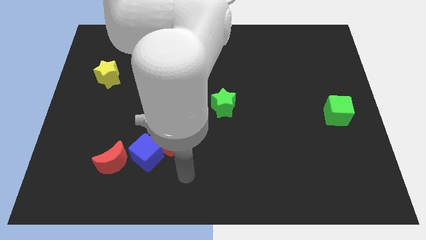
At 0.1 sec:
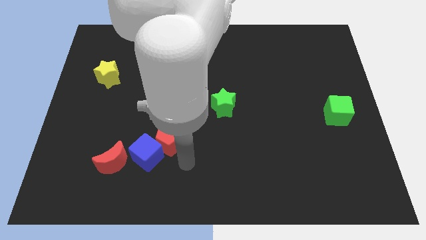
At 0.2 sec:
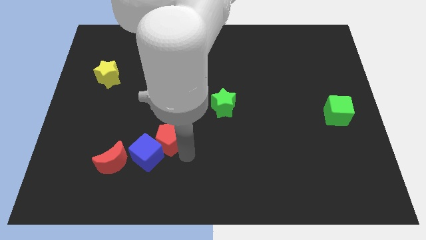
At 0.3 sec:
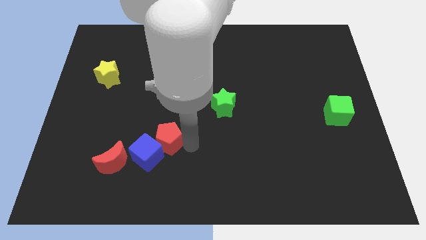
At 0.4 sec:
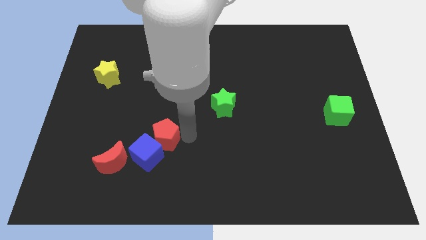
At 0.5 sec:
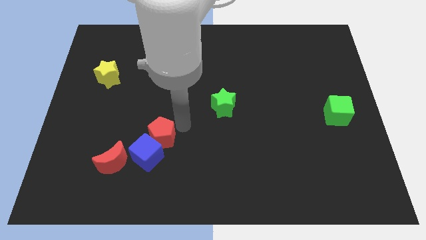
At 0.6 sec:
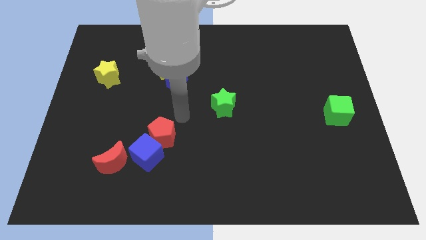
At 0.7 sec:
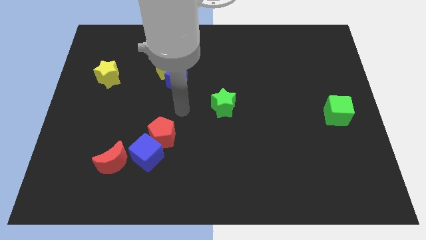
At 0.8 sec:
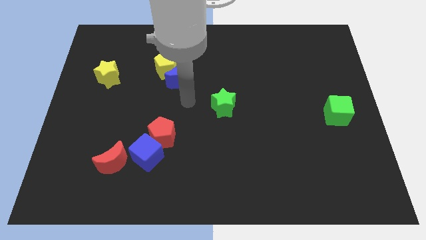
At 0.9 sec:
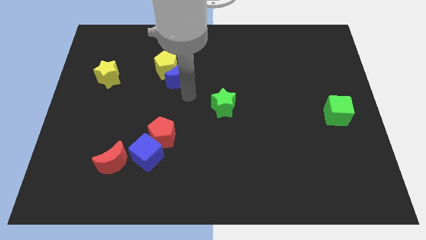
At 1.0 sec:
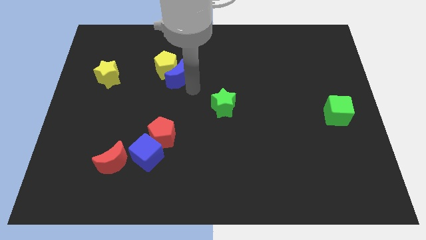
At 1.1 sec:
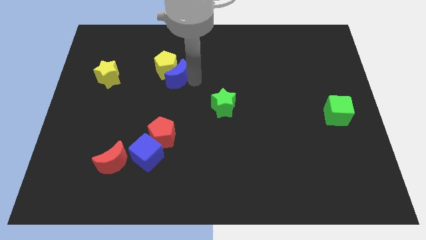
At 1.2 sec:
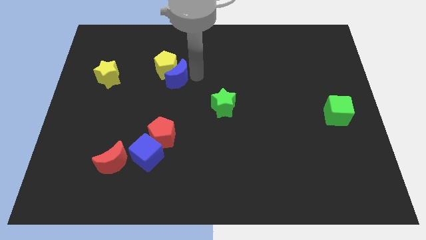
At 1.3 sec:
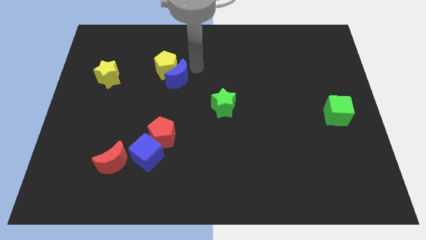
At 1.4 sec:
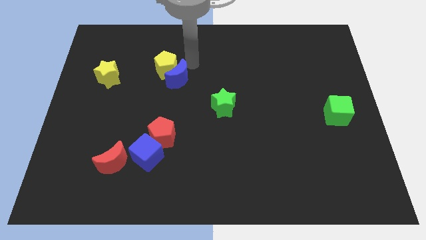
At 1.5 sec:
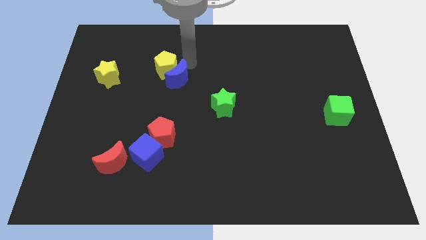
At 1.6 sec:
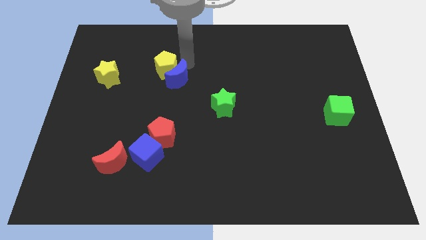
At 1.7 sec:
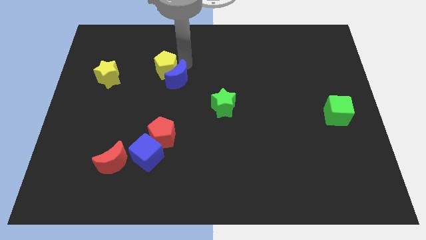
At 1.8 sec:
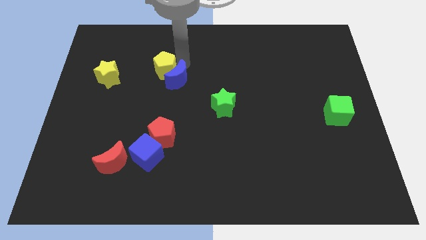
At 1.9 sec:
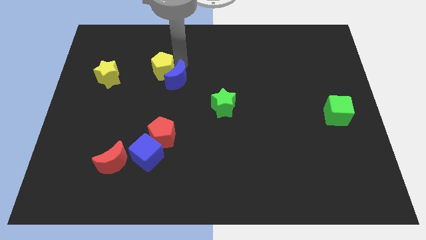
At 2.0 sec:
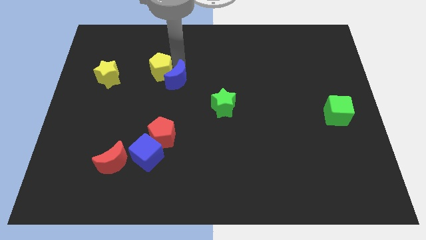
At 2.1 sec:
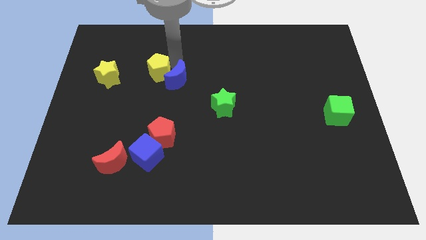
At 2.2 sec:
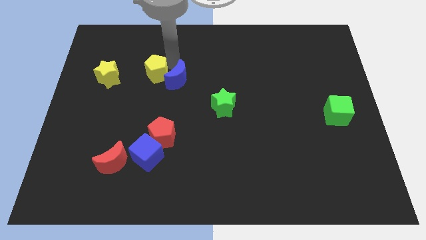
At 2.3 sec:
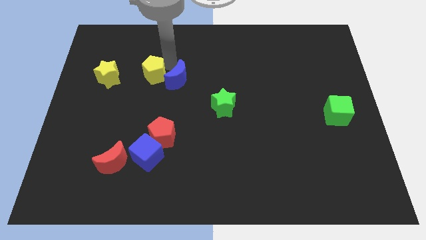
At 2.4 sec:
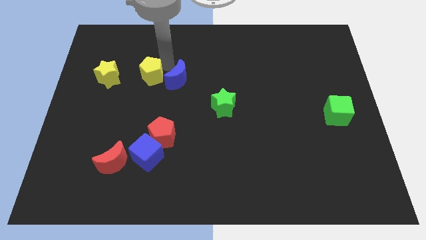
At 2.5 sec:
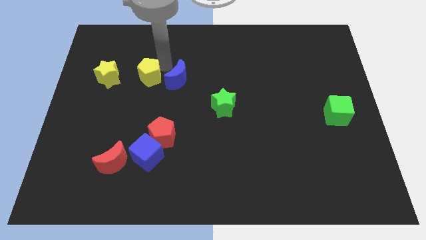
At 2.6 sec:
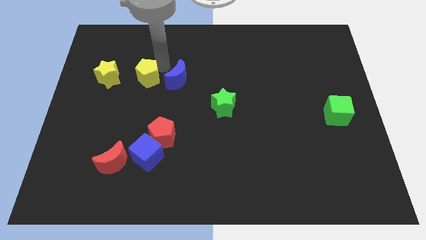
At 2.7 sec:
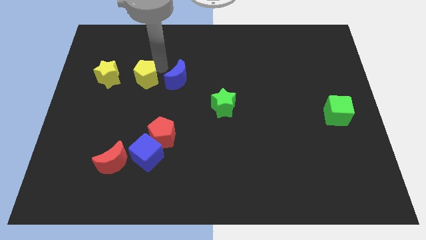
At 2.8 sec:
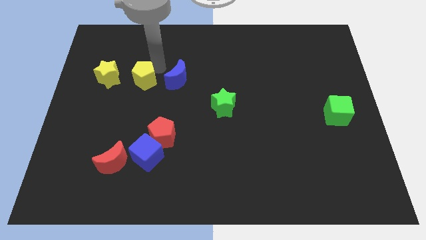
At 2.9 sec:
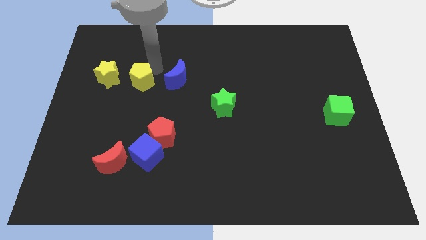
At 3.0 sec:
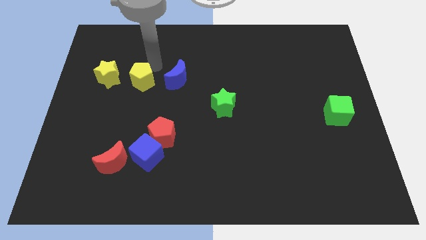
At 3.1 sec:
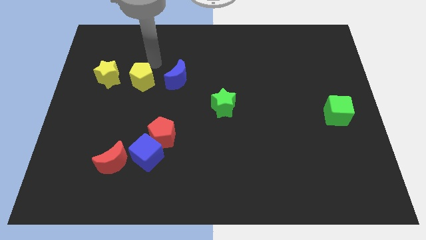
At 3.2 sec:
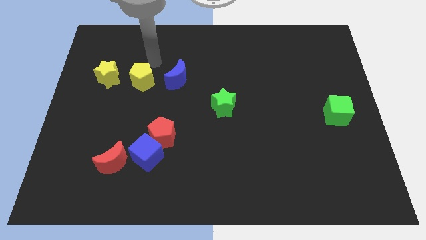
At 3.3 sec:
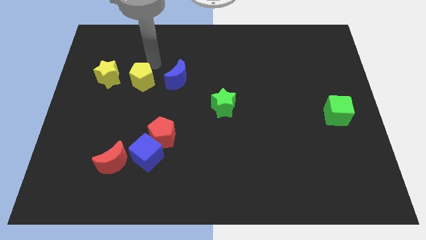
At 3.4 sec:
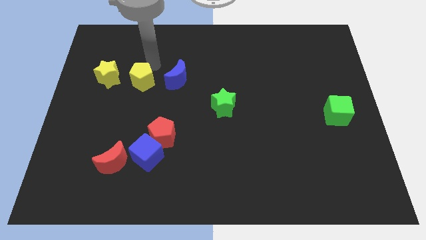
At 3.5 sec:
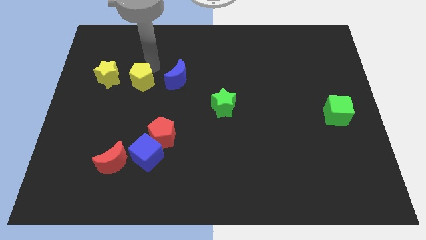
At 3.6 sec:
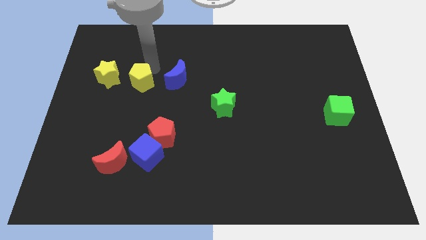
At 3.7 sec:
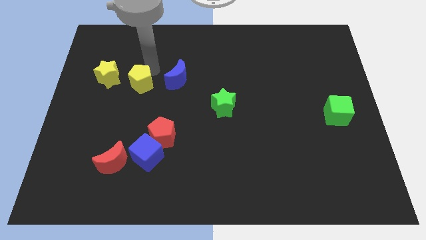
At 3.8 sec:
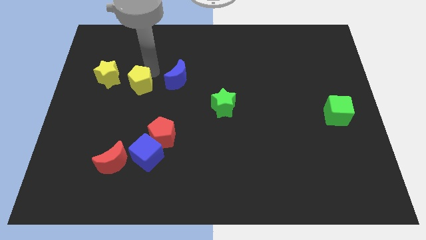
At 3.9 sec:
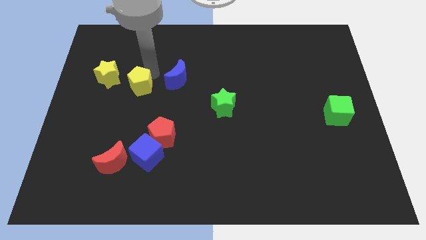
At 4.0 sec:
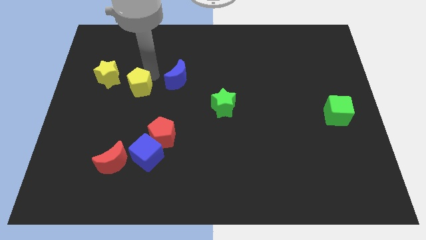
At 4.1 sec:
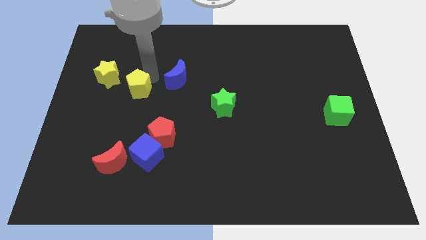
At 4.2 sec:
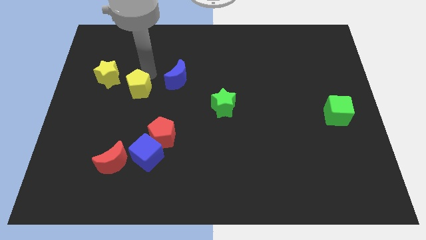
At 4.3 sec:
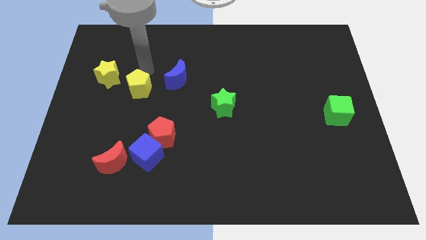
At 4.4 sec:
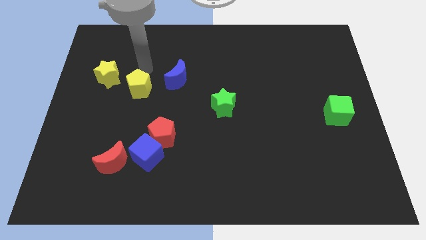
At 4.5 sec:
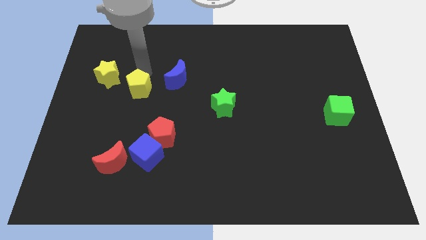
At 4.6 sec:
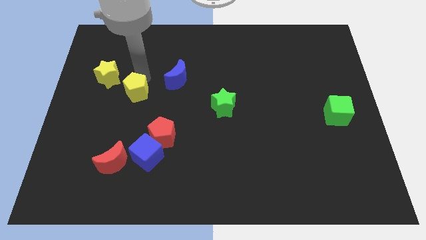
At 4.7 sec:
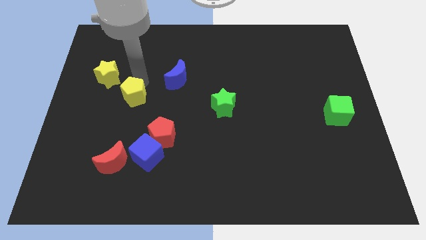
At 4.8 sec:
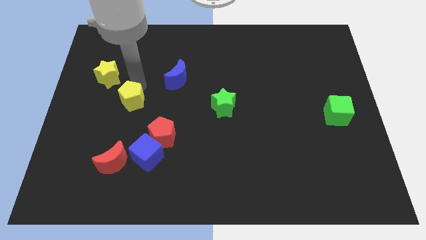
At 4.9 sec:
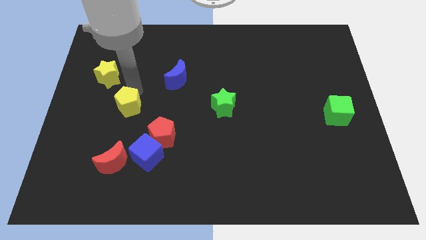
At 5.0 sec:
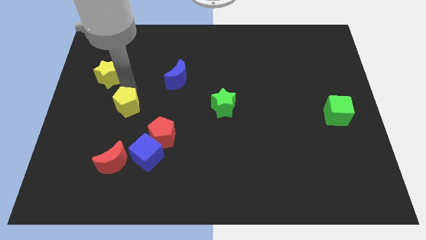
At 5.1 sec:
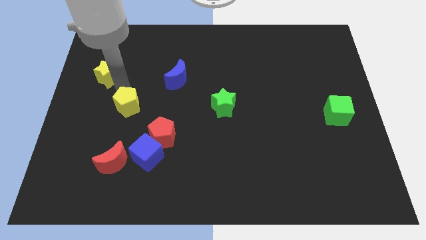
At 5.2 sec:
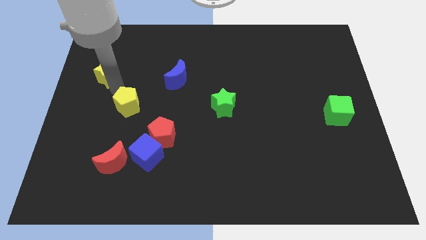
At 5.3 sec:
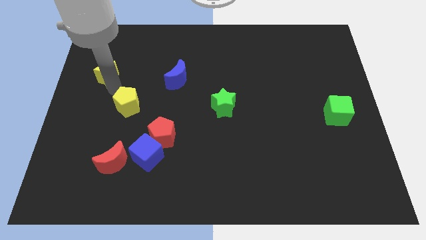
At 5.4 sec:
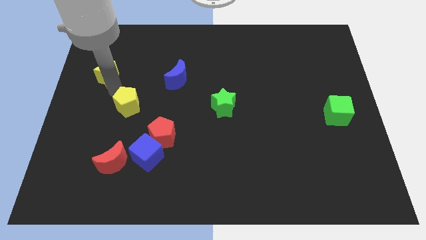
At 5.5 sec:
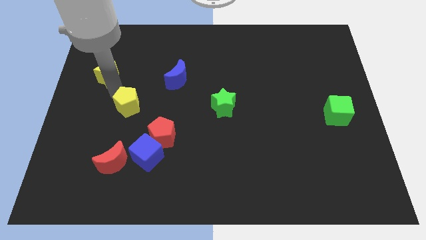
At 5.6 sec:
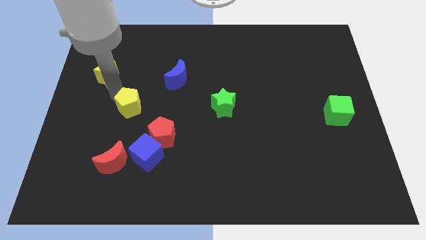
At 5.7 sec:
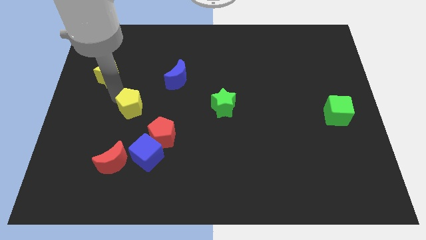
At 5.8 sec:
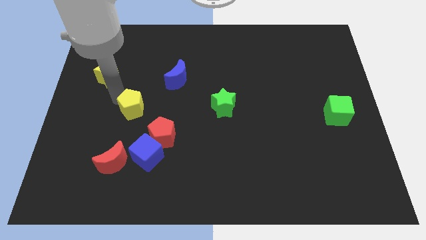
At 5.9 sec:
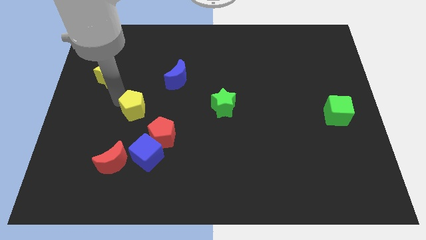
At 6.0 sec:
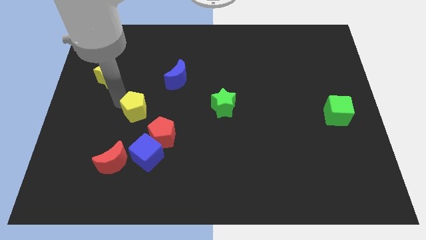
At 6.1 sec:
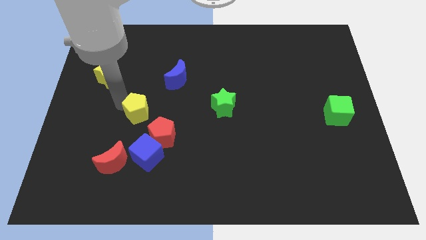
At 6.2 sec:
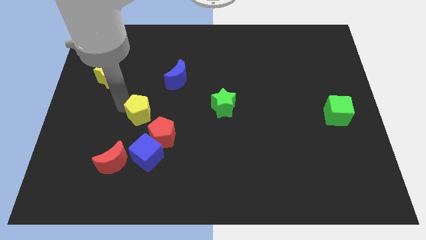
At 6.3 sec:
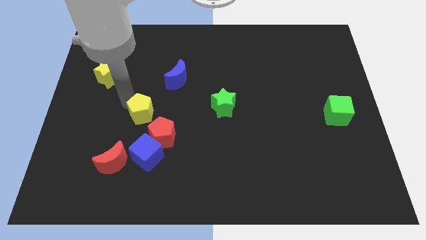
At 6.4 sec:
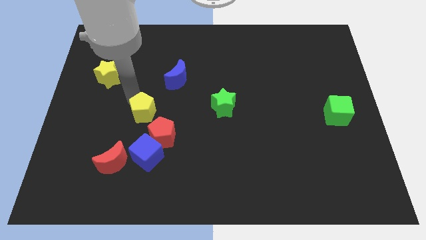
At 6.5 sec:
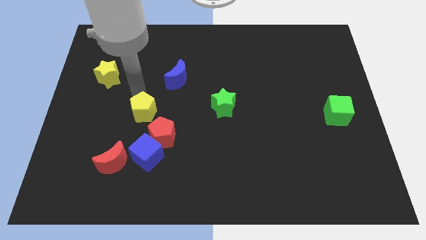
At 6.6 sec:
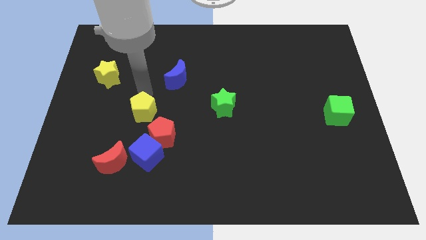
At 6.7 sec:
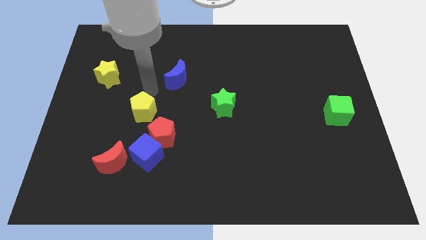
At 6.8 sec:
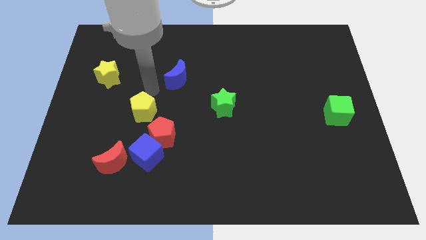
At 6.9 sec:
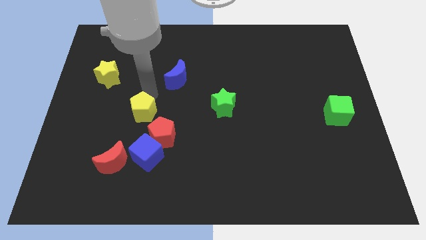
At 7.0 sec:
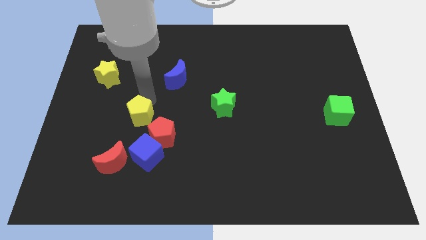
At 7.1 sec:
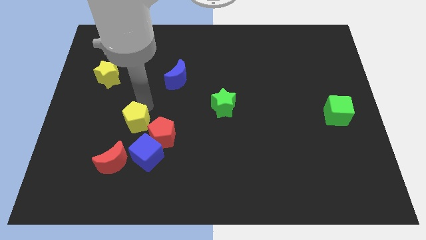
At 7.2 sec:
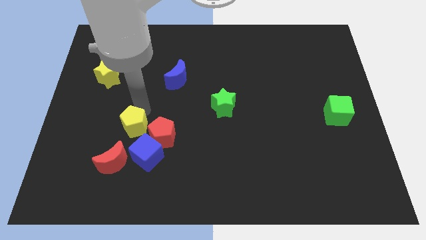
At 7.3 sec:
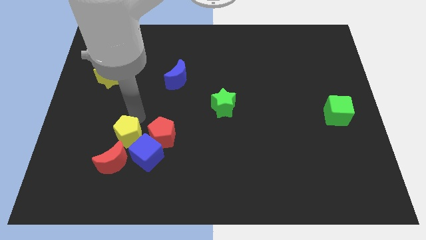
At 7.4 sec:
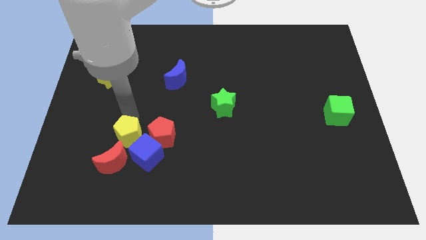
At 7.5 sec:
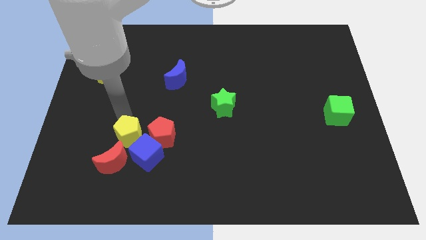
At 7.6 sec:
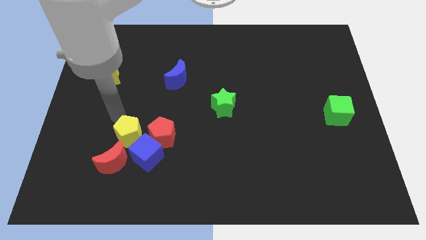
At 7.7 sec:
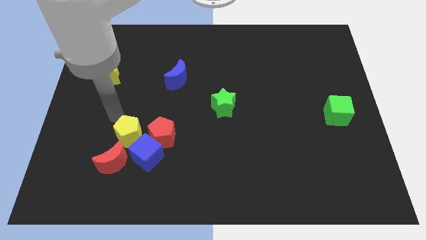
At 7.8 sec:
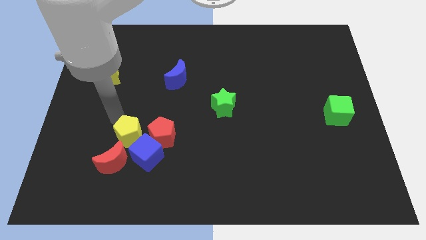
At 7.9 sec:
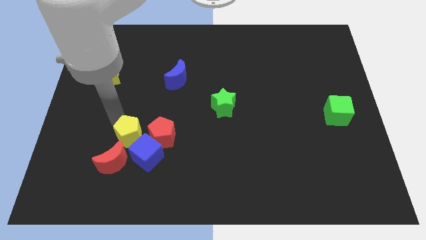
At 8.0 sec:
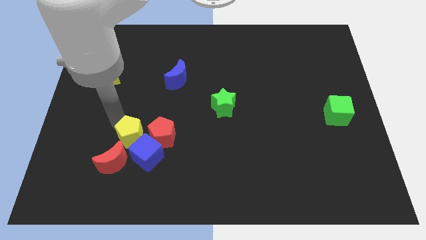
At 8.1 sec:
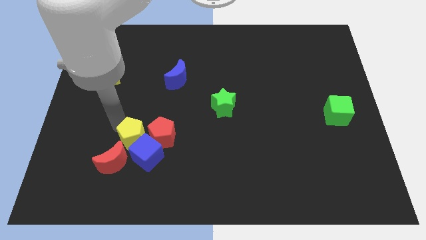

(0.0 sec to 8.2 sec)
put the yellow pentagon next to the blue cube
